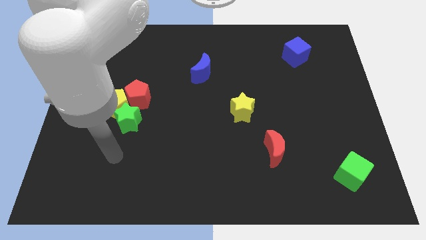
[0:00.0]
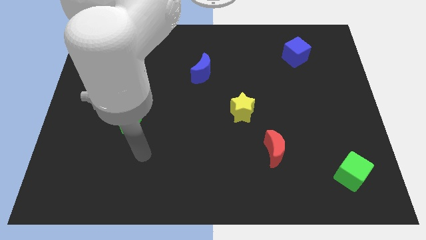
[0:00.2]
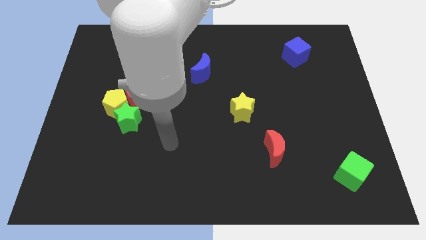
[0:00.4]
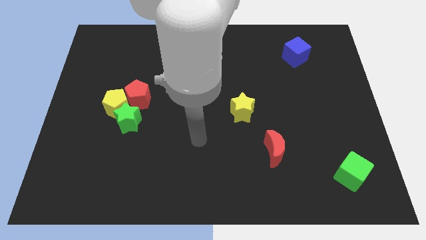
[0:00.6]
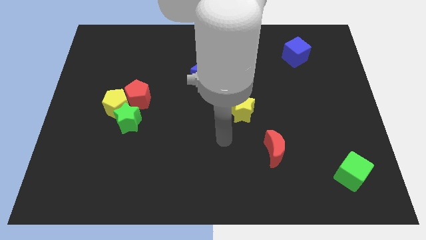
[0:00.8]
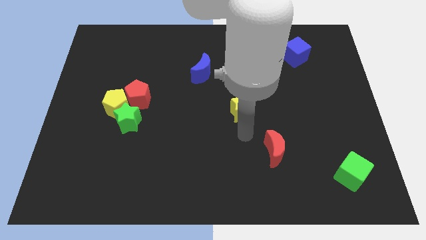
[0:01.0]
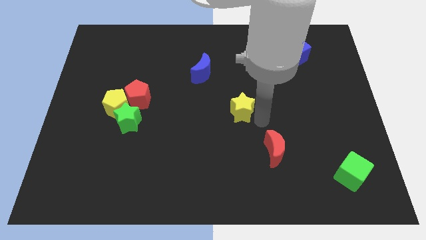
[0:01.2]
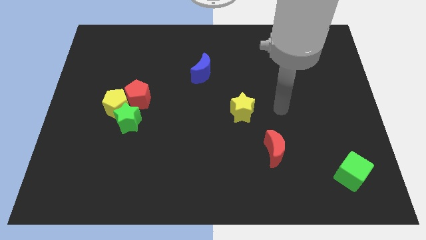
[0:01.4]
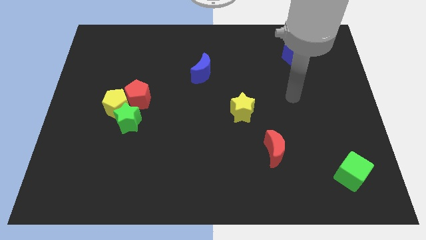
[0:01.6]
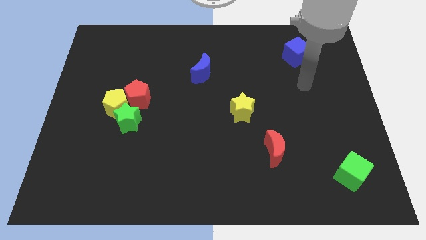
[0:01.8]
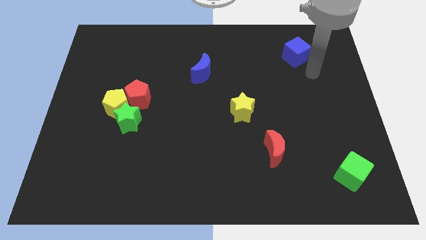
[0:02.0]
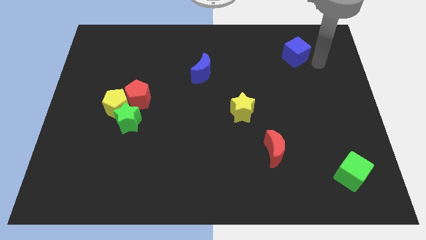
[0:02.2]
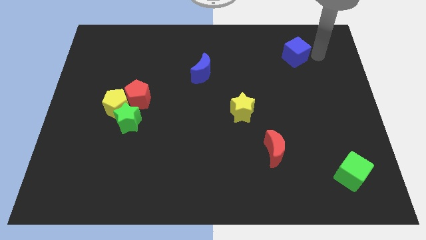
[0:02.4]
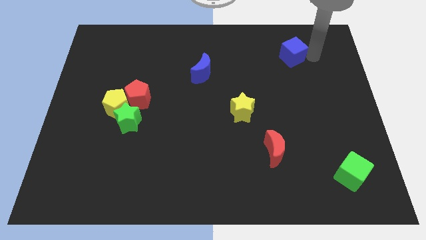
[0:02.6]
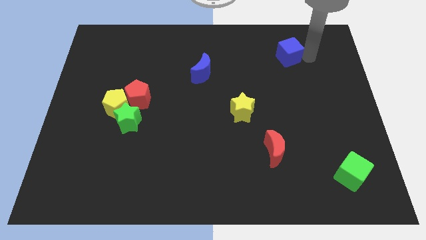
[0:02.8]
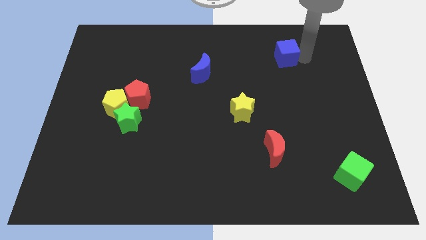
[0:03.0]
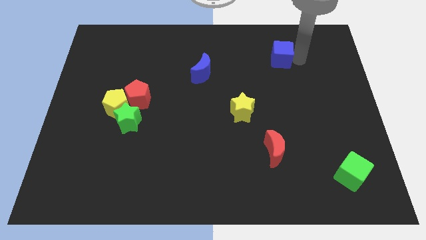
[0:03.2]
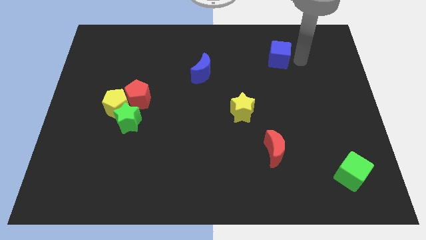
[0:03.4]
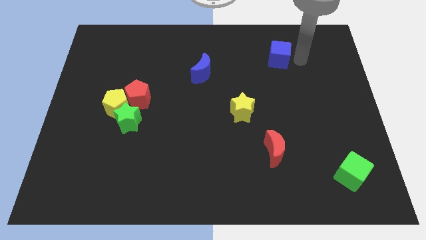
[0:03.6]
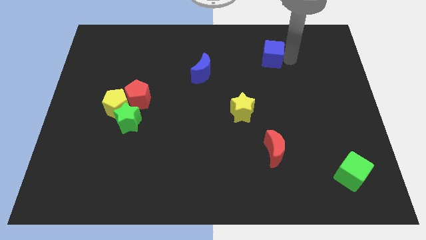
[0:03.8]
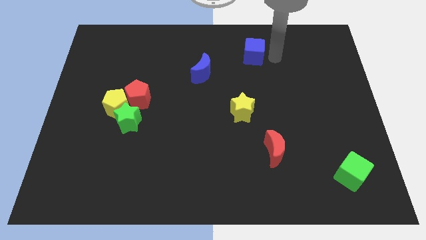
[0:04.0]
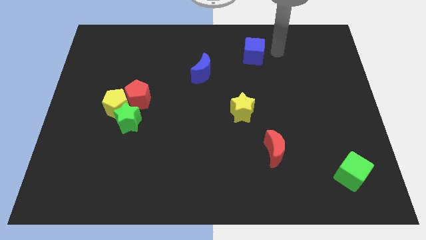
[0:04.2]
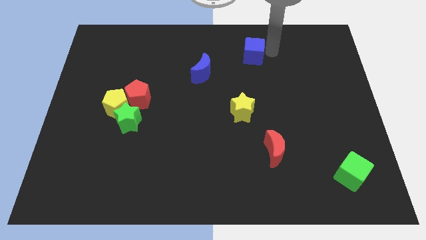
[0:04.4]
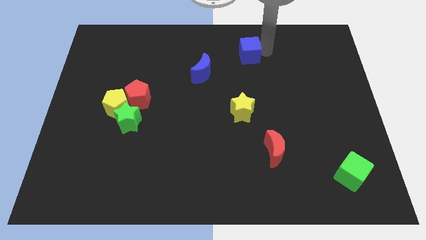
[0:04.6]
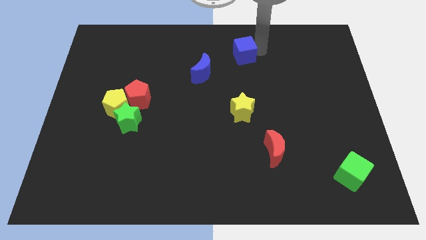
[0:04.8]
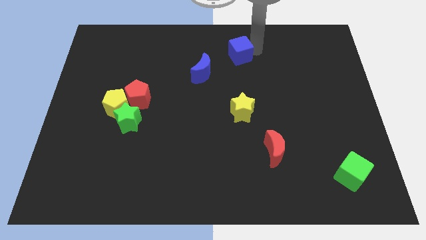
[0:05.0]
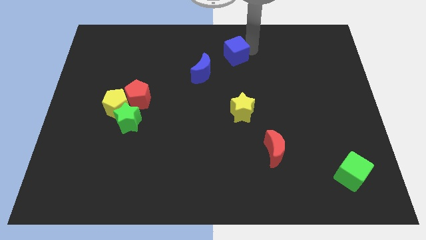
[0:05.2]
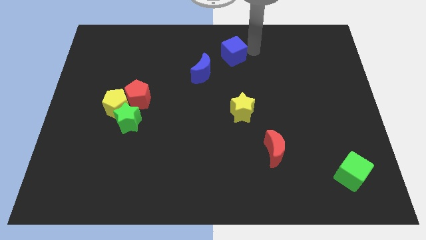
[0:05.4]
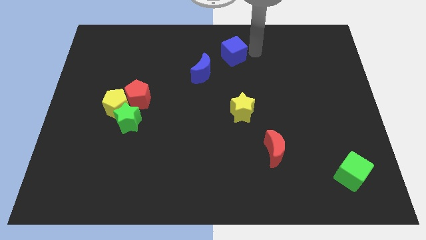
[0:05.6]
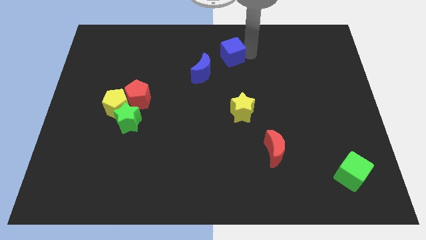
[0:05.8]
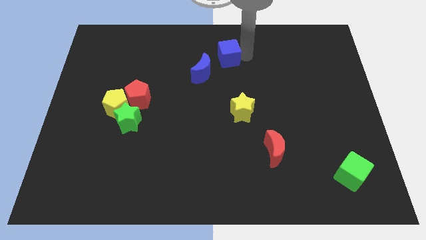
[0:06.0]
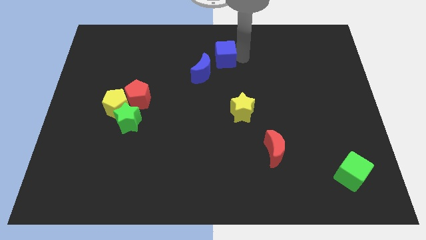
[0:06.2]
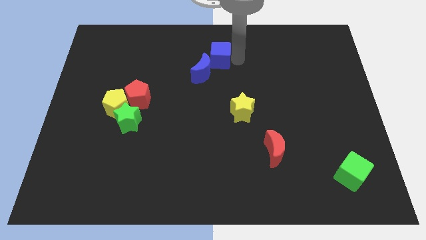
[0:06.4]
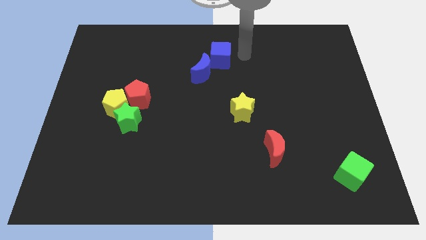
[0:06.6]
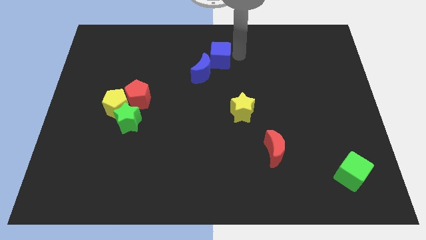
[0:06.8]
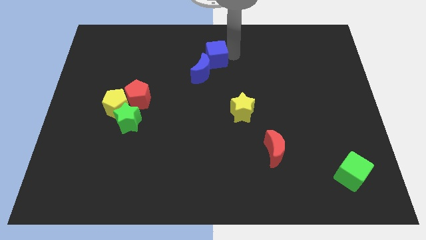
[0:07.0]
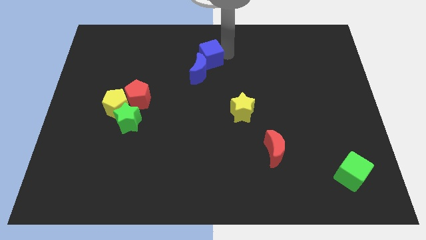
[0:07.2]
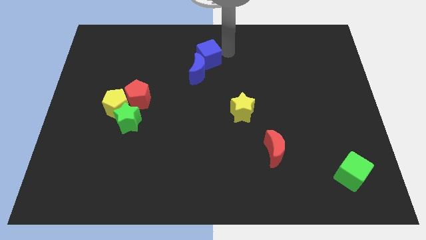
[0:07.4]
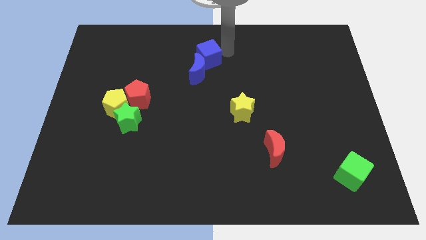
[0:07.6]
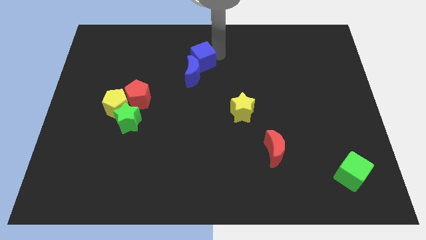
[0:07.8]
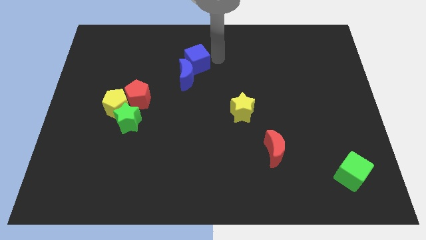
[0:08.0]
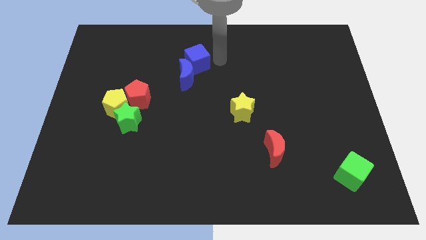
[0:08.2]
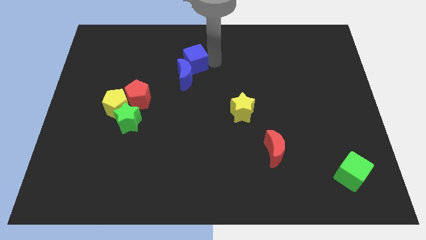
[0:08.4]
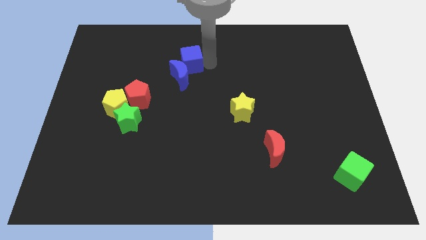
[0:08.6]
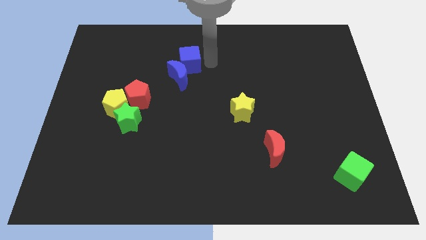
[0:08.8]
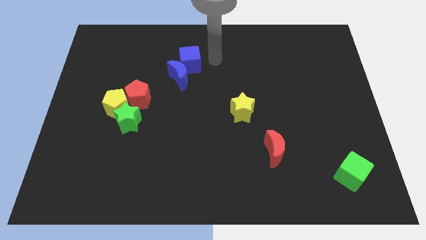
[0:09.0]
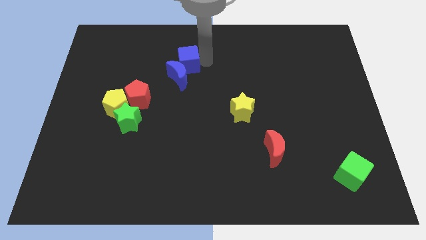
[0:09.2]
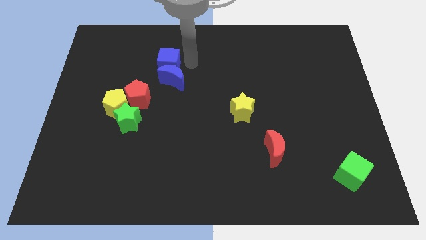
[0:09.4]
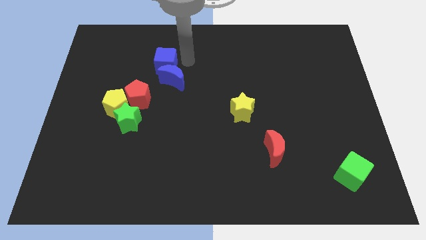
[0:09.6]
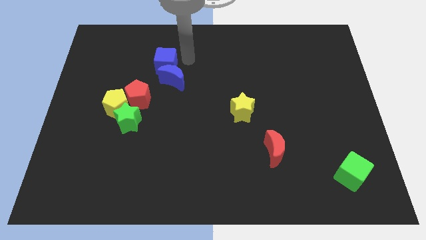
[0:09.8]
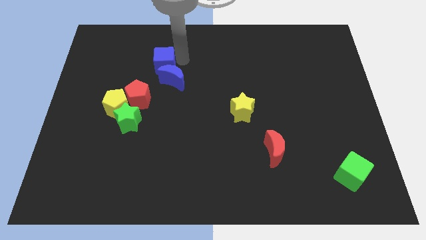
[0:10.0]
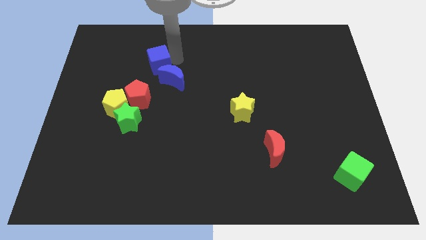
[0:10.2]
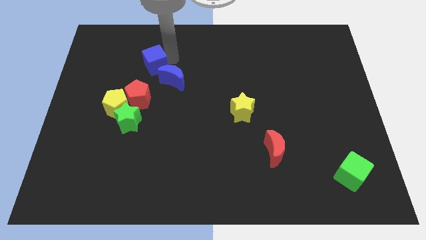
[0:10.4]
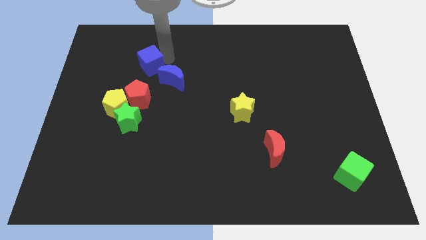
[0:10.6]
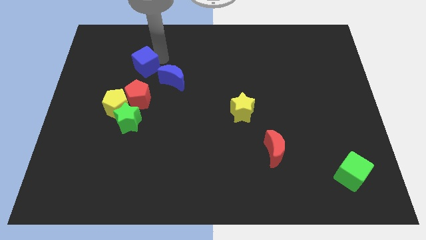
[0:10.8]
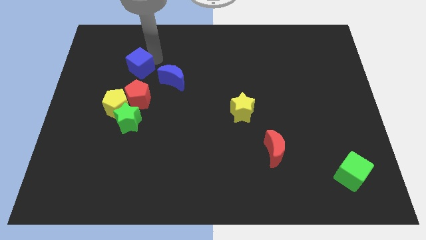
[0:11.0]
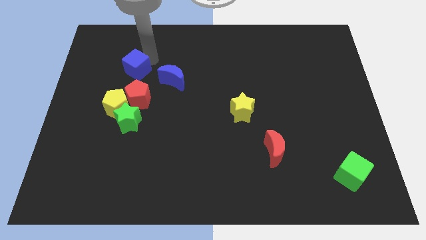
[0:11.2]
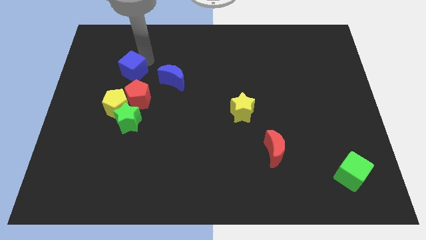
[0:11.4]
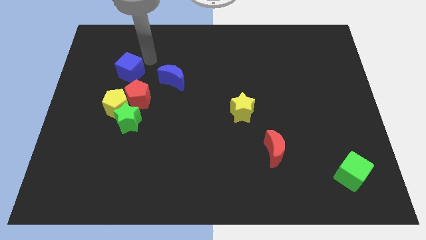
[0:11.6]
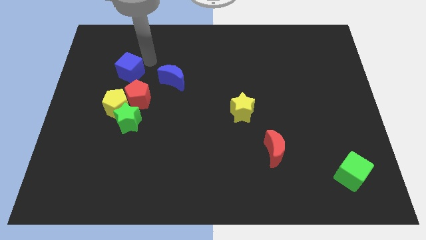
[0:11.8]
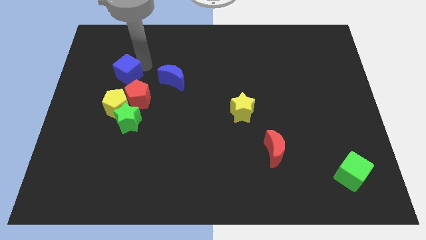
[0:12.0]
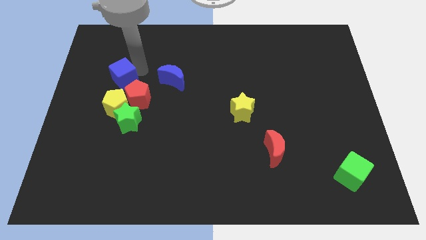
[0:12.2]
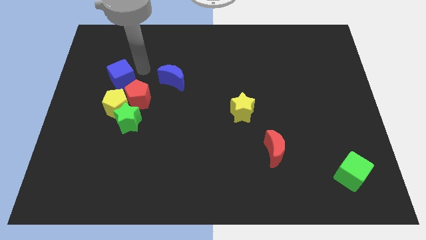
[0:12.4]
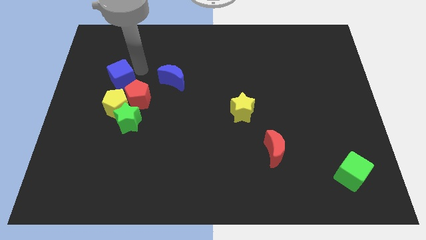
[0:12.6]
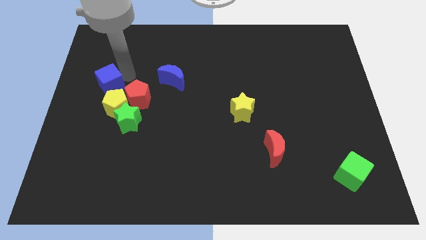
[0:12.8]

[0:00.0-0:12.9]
slide the blue cube to the top left of the yellow pentagon
